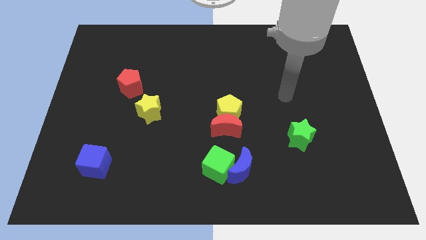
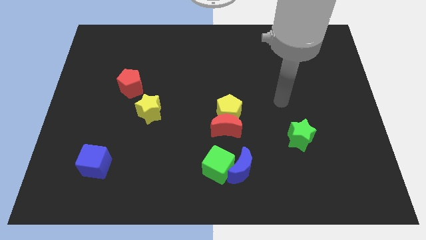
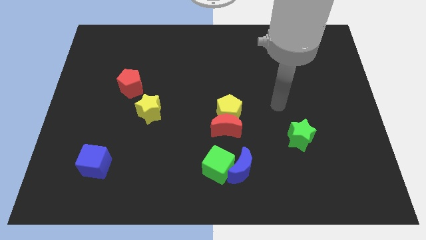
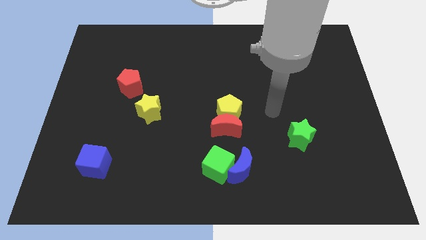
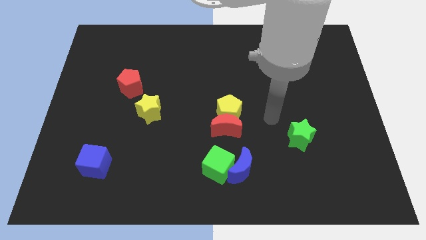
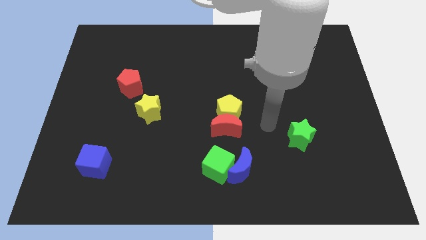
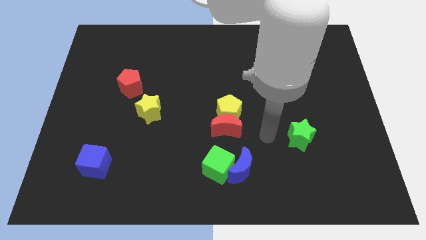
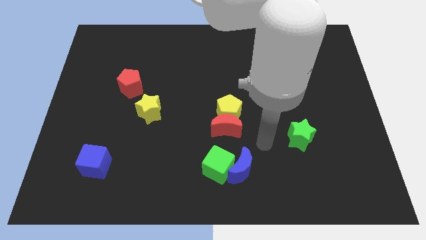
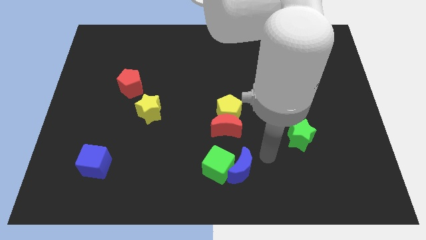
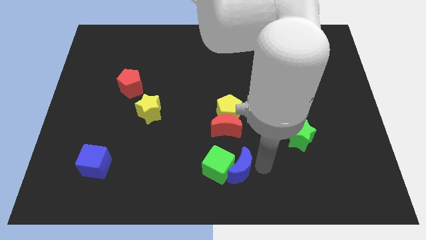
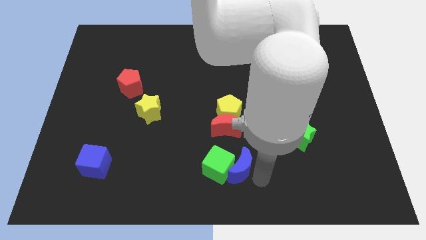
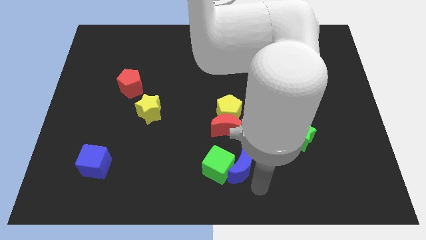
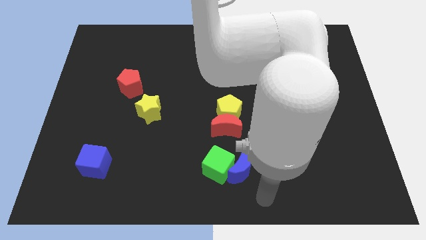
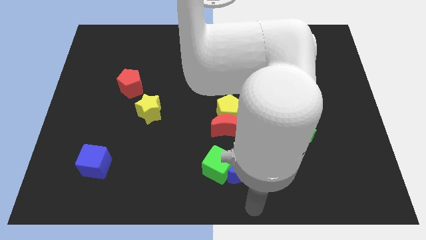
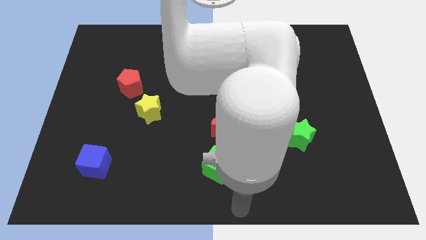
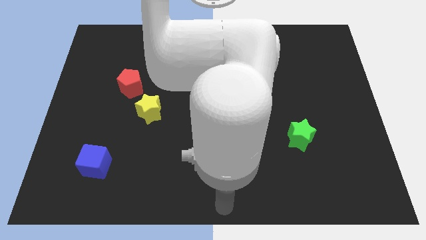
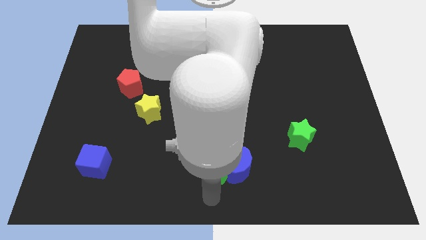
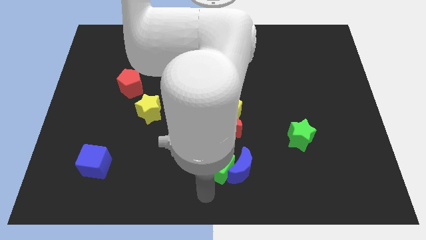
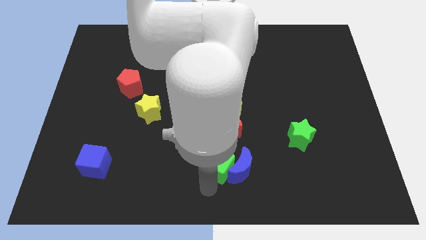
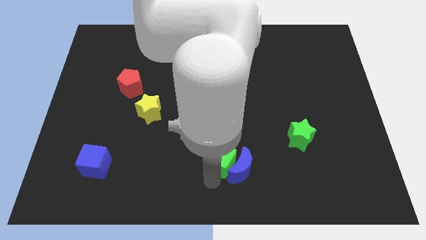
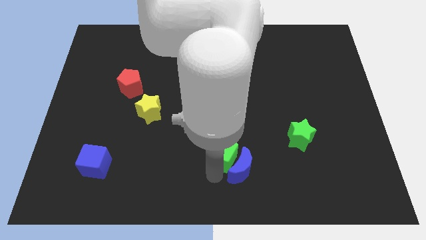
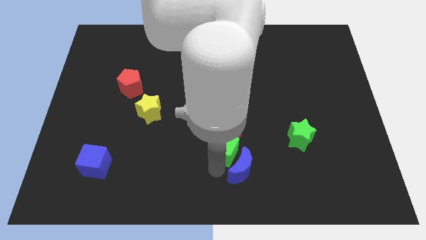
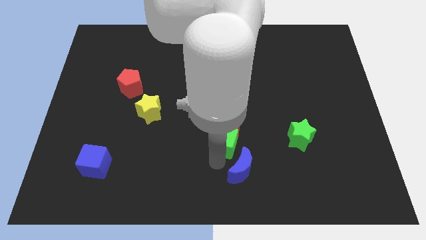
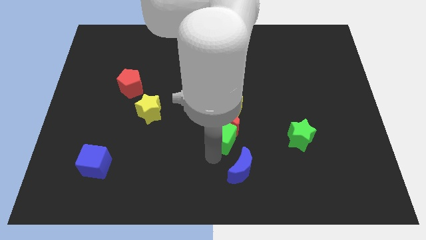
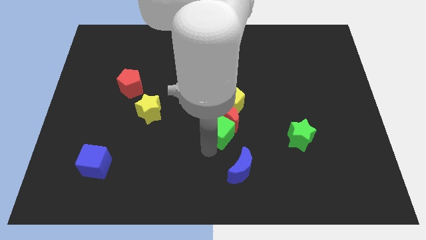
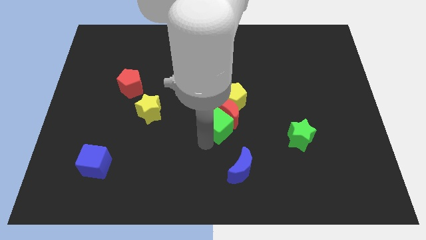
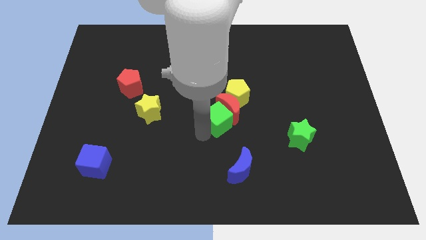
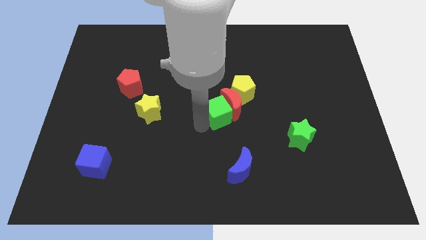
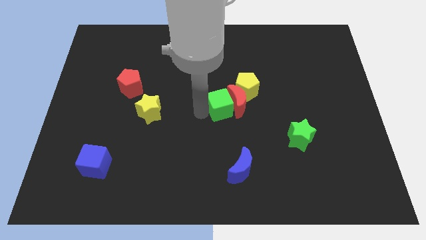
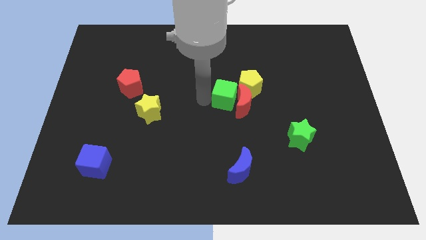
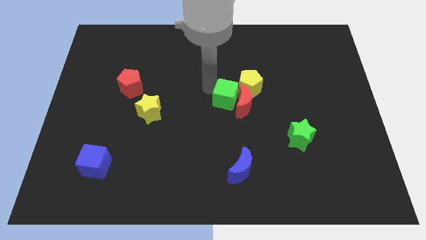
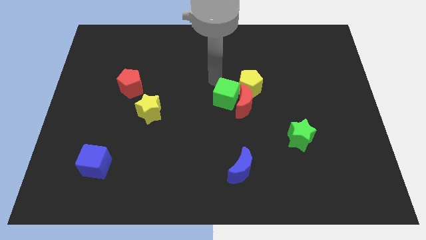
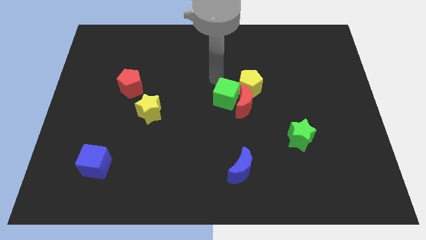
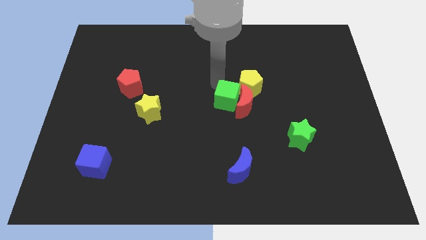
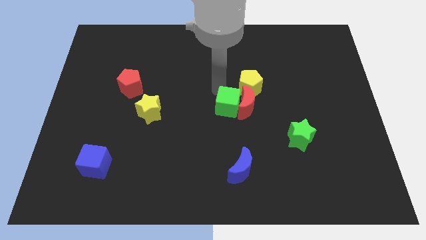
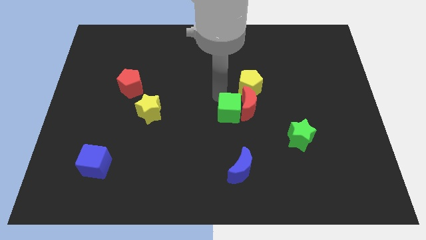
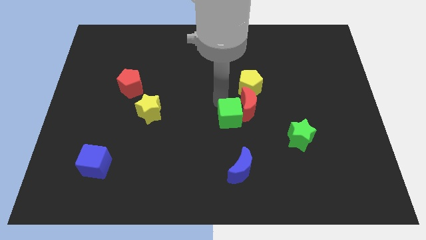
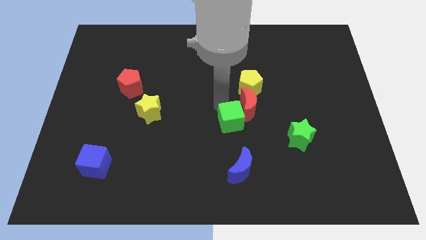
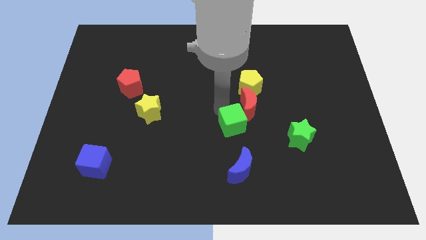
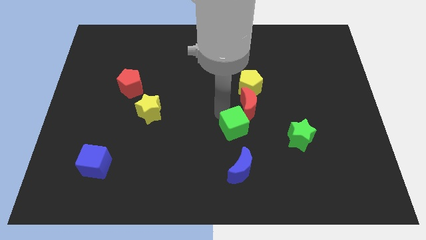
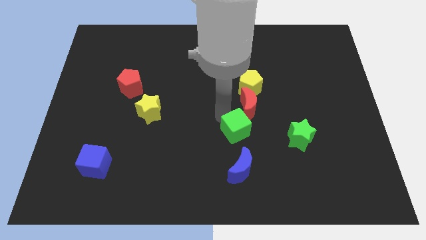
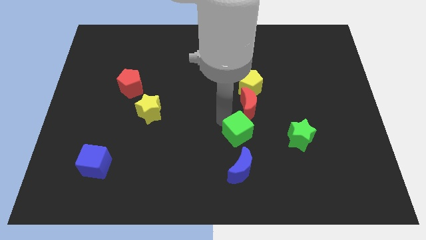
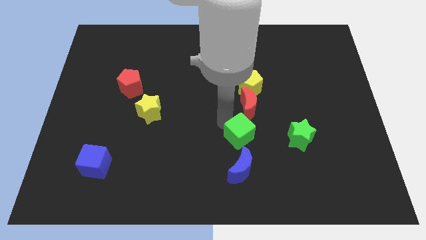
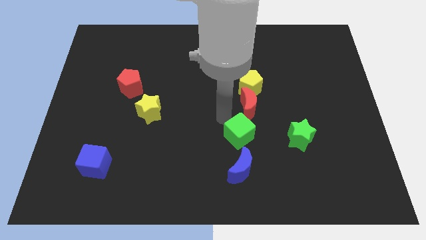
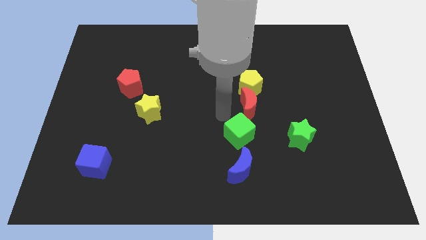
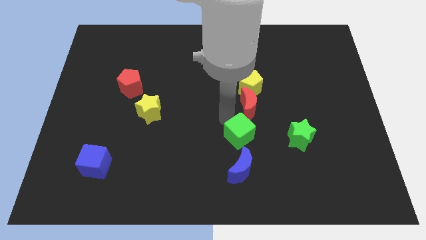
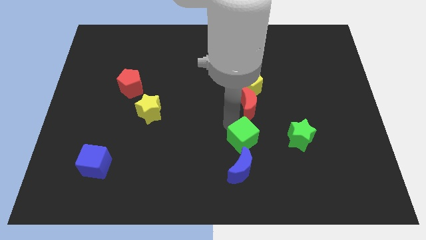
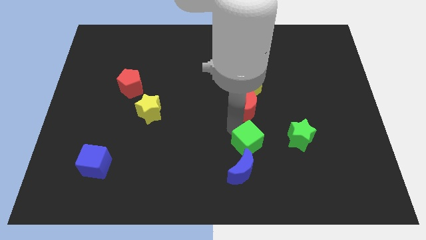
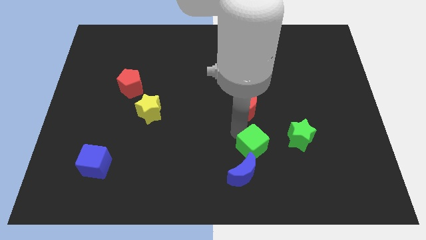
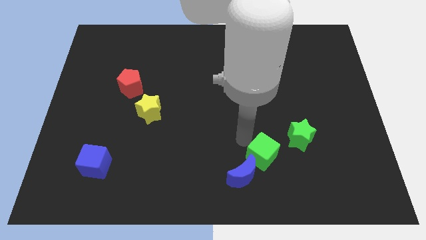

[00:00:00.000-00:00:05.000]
slightly move the green cube right

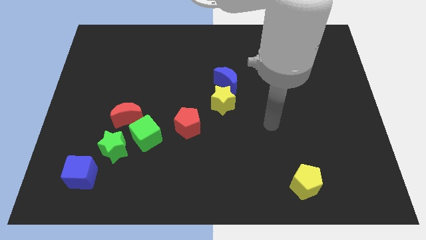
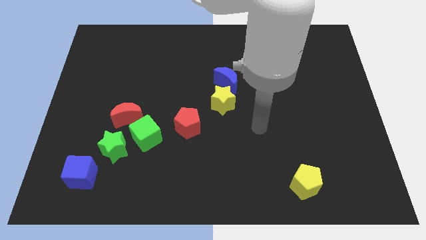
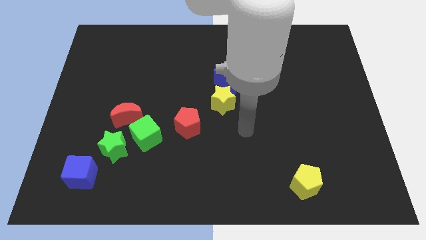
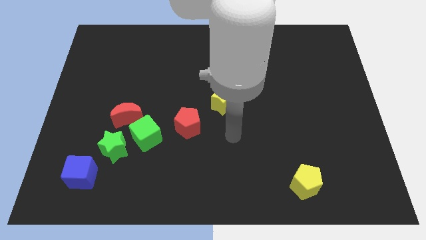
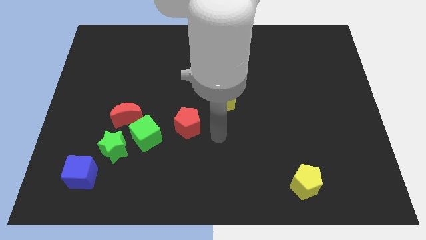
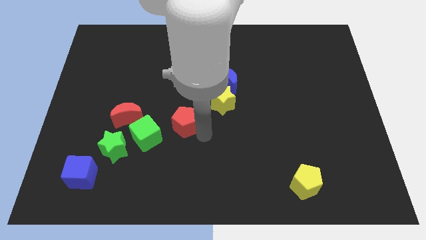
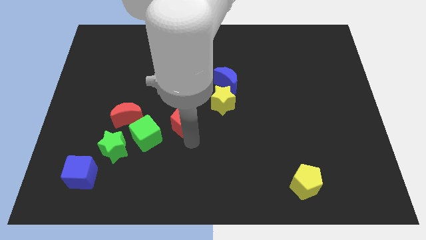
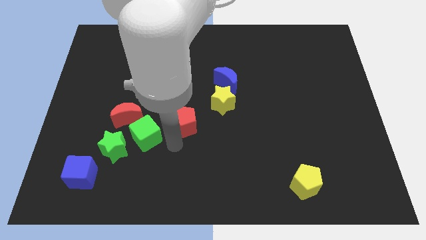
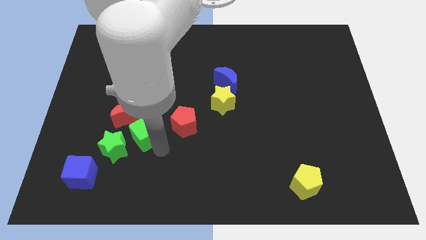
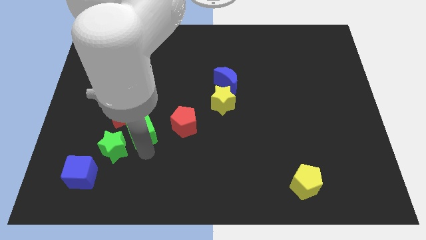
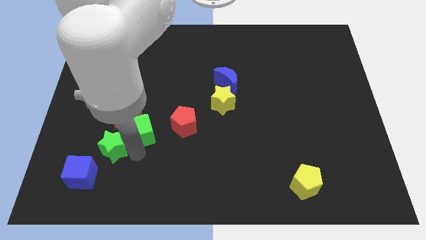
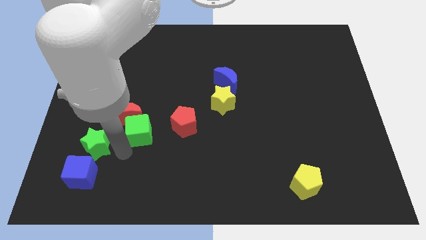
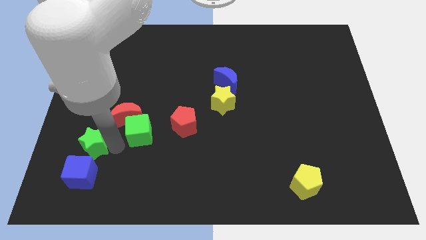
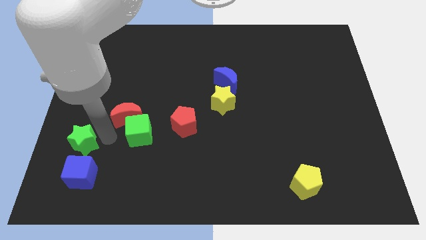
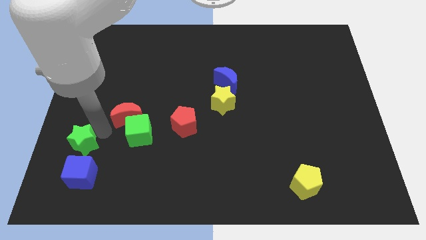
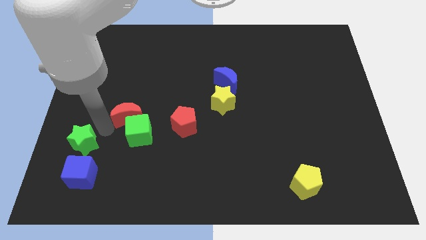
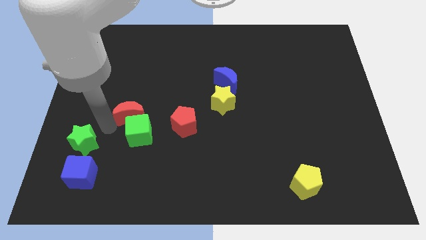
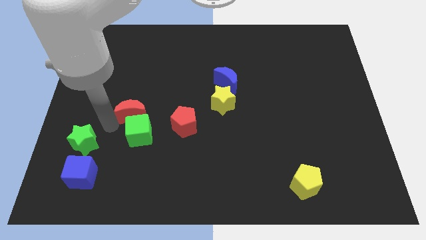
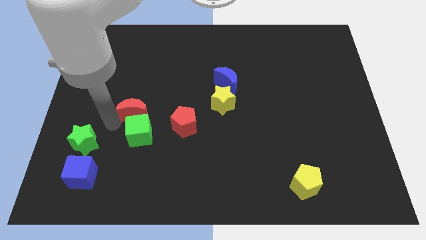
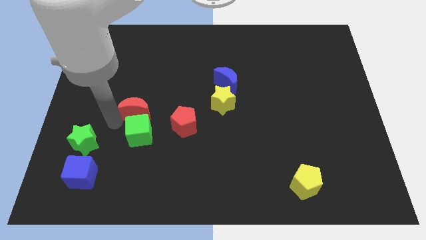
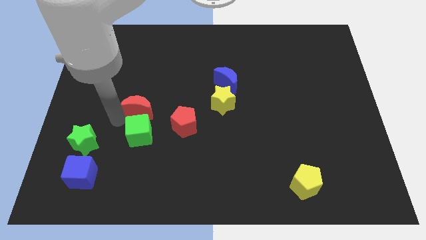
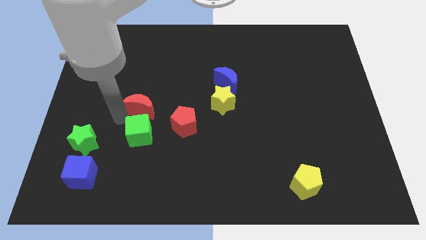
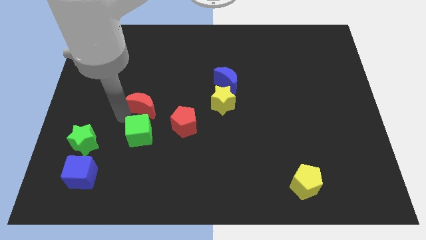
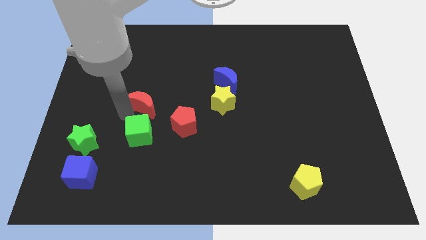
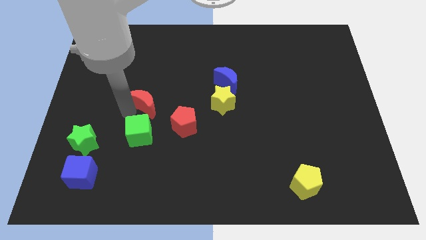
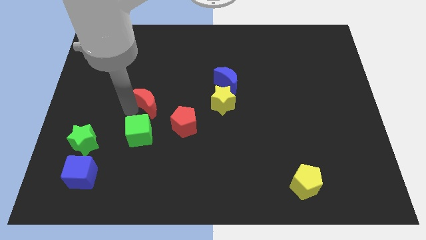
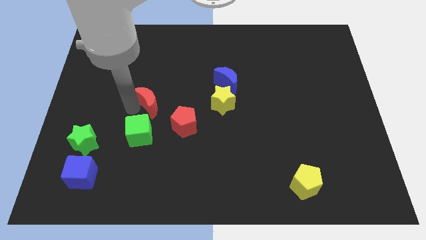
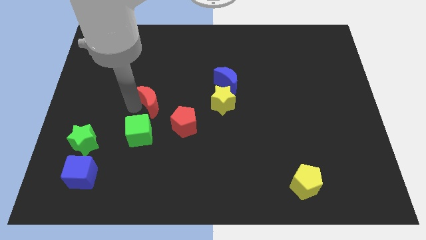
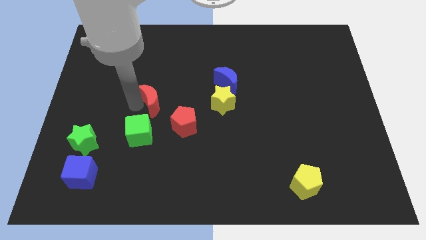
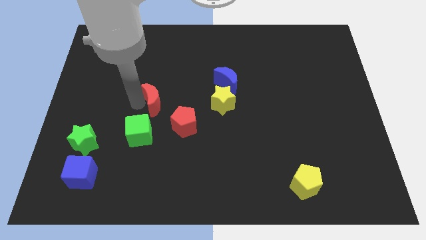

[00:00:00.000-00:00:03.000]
slightly slide the red moon up and right

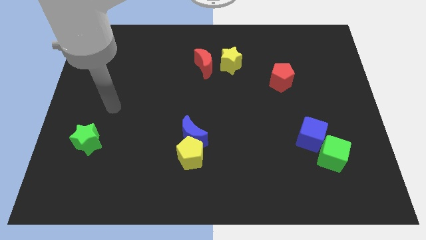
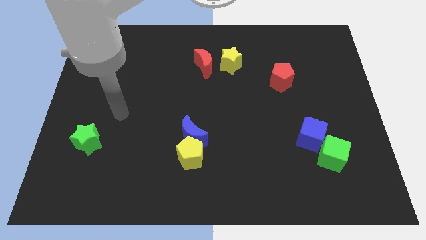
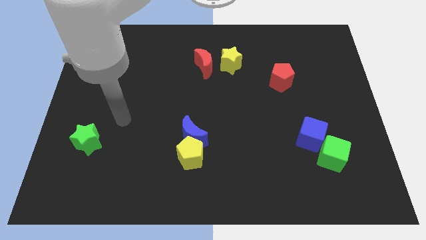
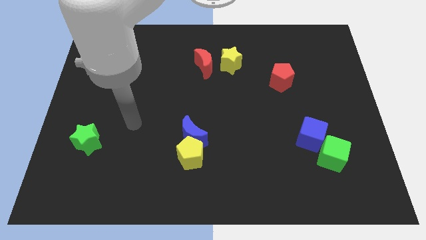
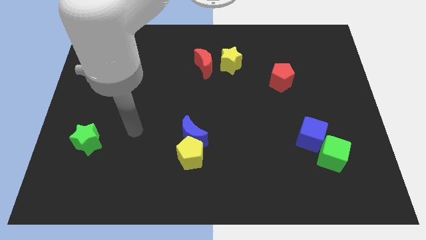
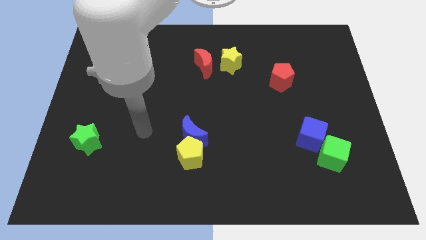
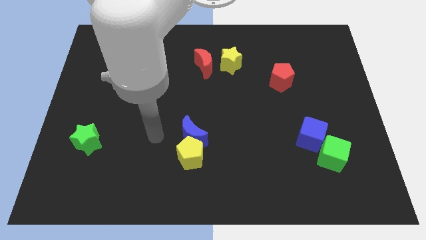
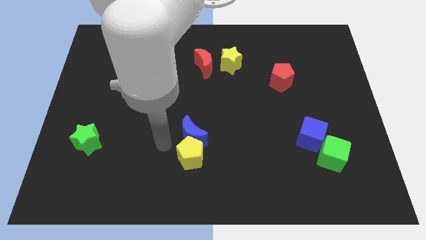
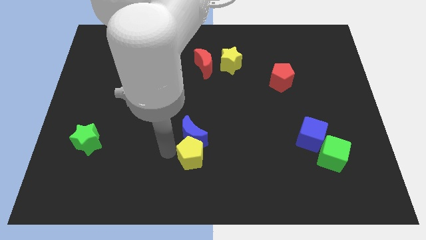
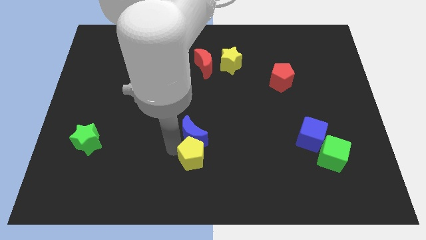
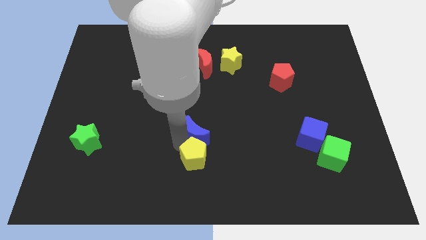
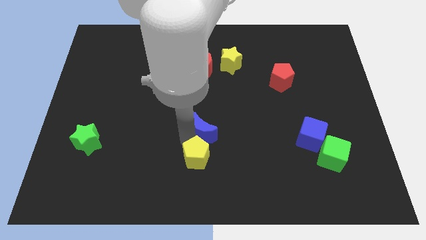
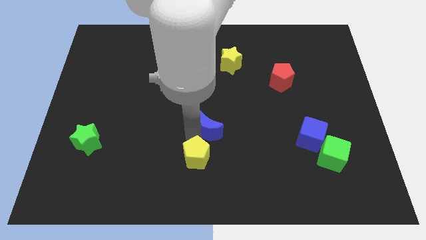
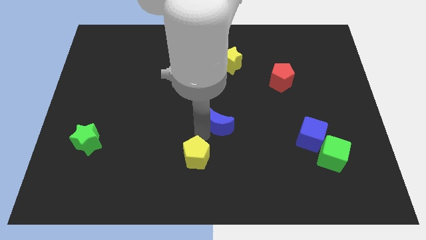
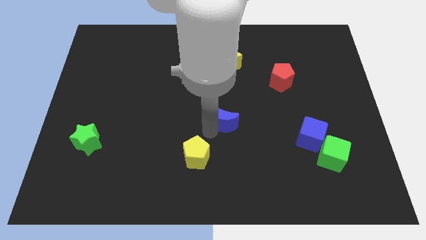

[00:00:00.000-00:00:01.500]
push the blue moon diagonally upwards and right a little bit
